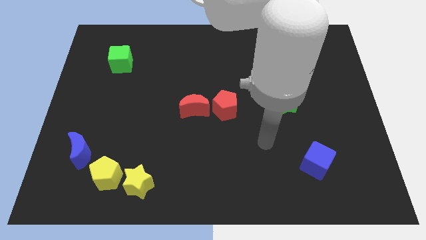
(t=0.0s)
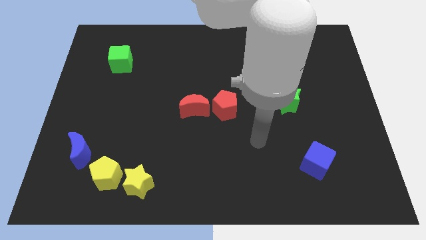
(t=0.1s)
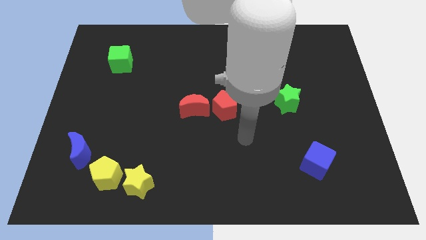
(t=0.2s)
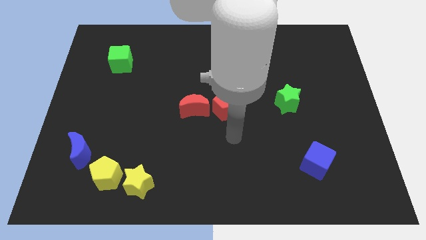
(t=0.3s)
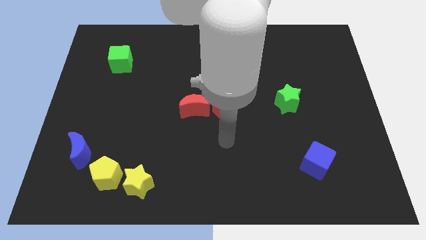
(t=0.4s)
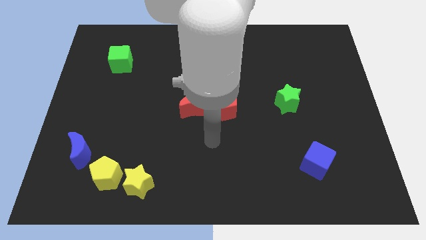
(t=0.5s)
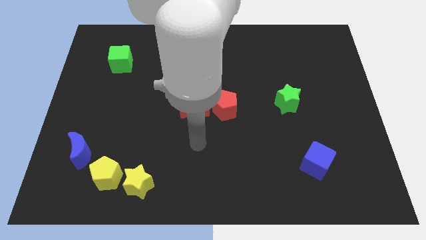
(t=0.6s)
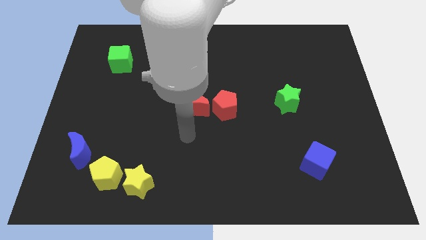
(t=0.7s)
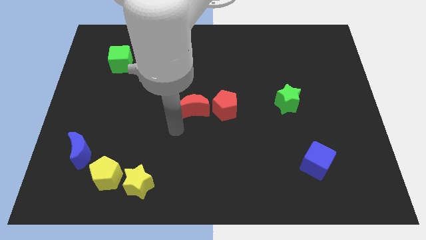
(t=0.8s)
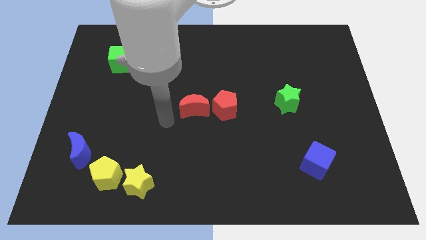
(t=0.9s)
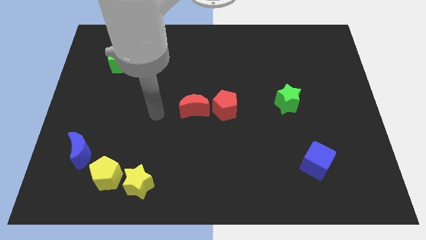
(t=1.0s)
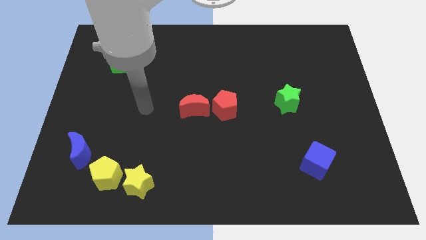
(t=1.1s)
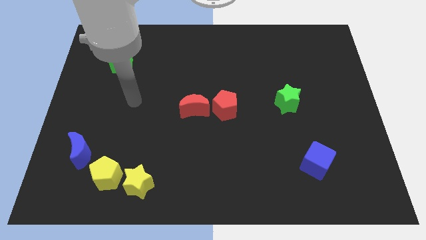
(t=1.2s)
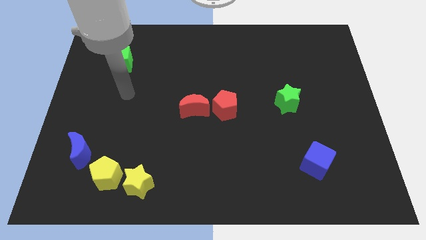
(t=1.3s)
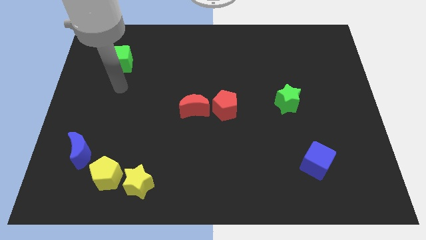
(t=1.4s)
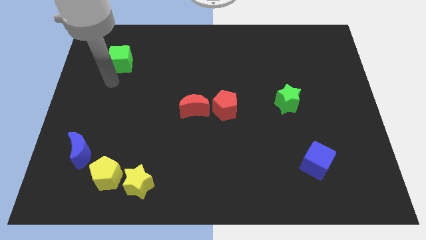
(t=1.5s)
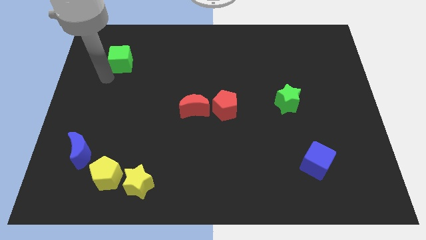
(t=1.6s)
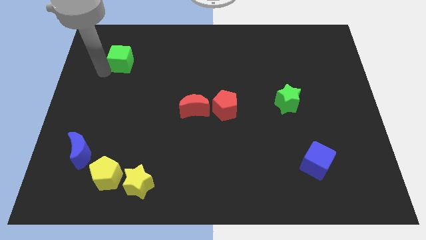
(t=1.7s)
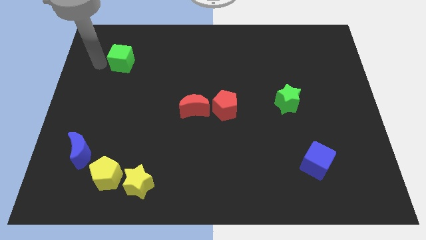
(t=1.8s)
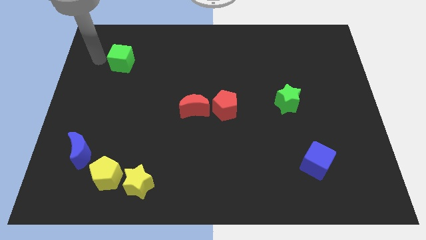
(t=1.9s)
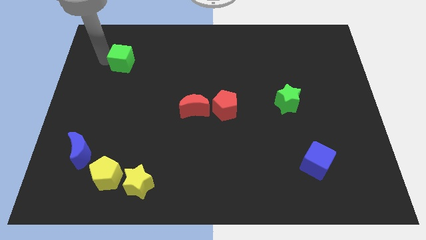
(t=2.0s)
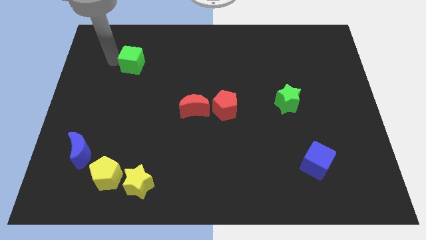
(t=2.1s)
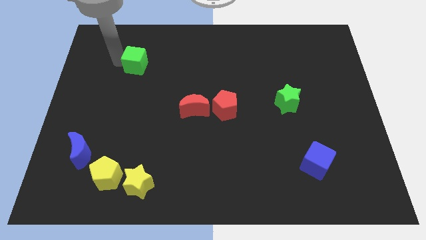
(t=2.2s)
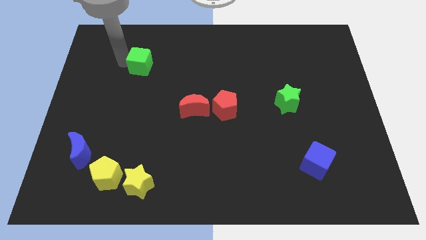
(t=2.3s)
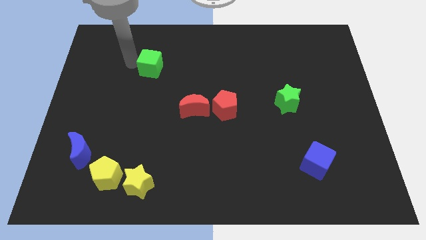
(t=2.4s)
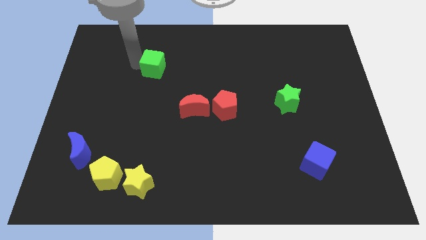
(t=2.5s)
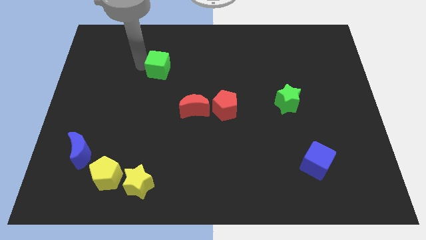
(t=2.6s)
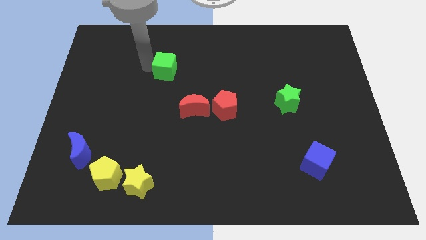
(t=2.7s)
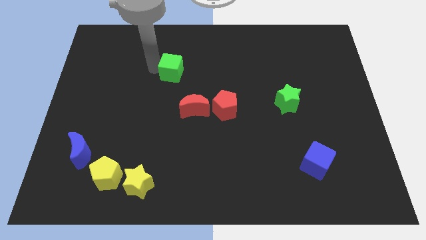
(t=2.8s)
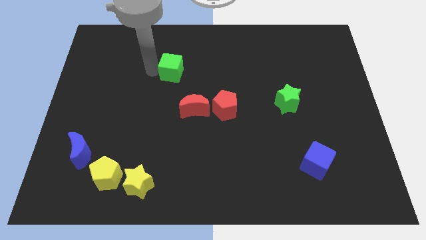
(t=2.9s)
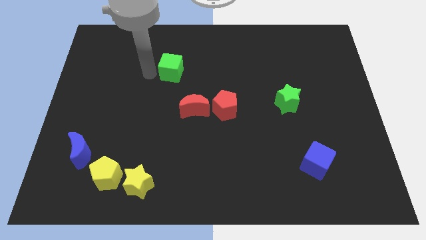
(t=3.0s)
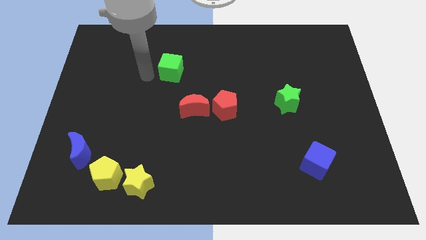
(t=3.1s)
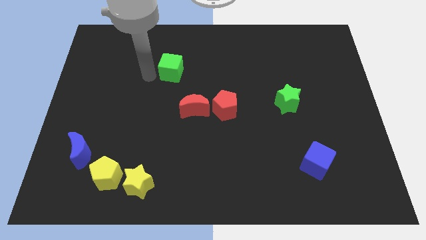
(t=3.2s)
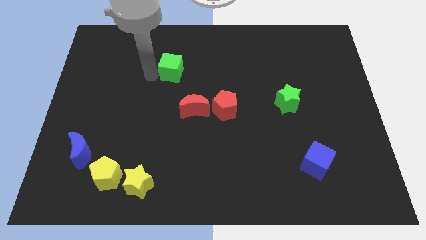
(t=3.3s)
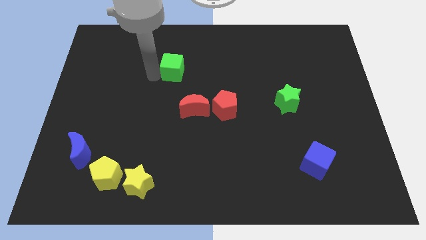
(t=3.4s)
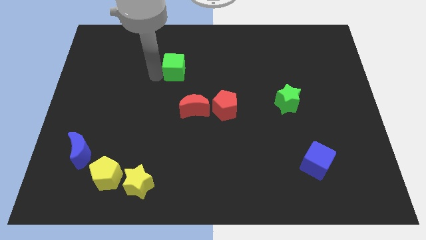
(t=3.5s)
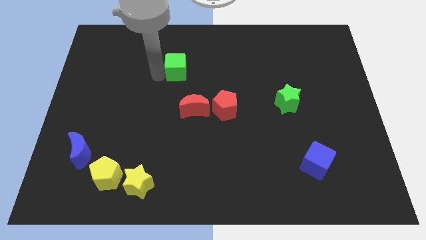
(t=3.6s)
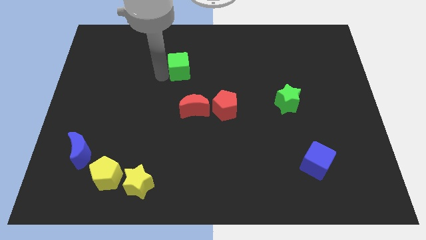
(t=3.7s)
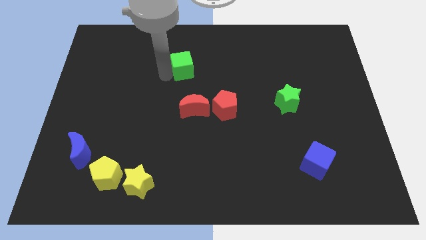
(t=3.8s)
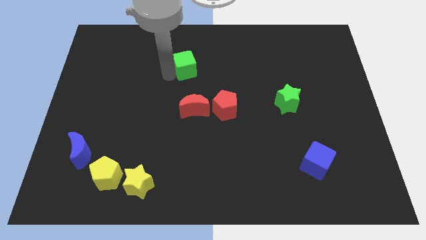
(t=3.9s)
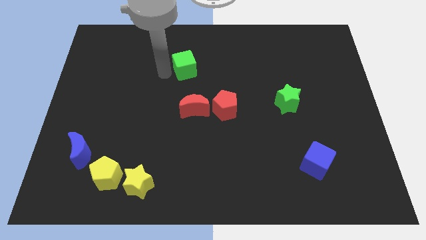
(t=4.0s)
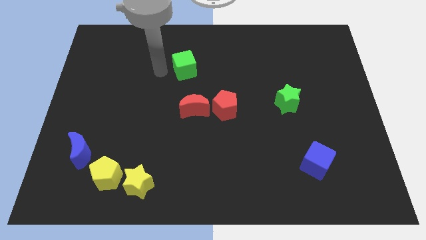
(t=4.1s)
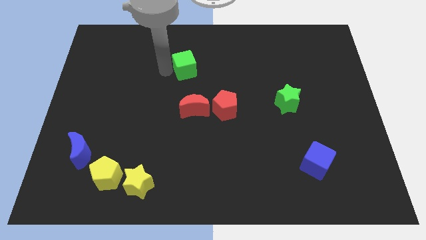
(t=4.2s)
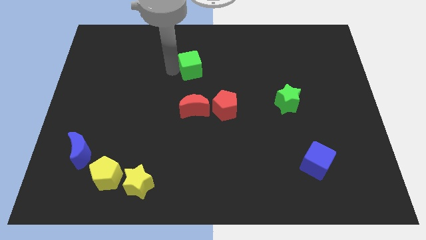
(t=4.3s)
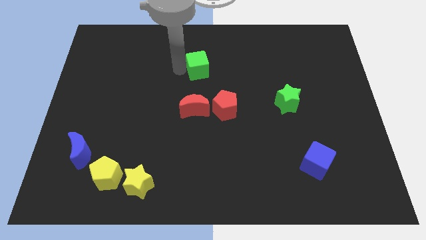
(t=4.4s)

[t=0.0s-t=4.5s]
slide the green cube to the right

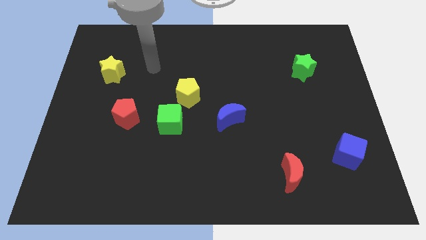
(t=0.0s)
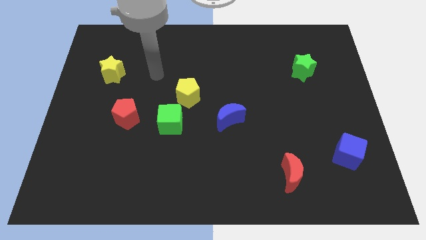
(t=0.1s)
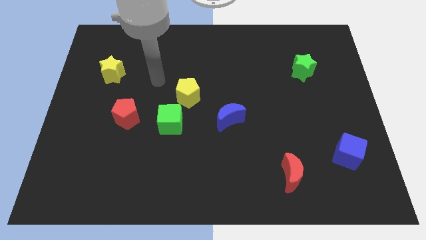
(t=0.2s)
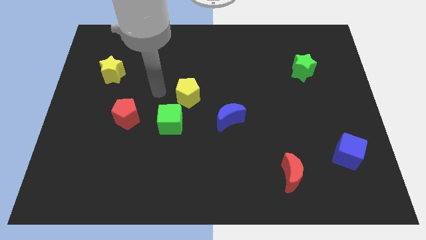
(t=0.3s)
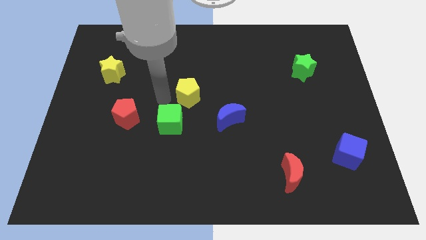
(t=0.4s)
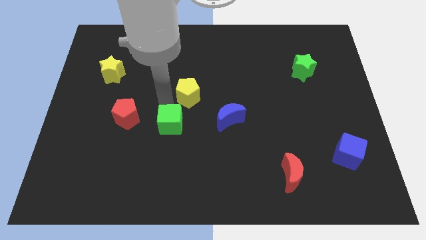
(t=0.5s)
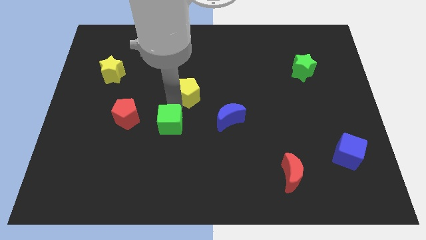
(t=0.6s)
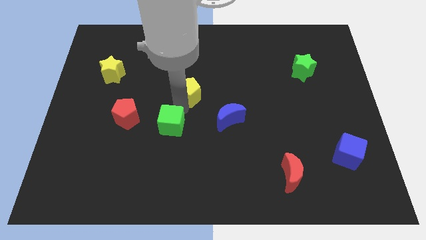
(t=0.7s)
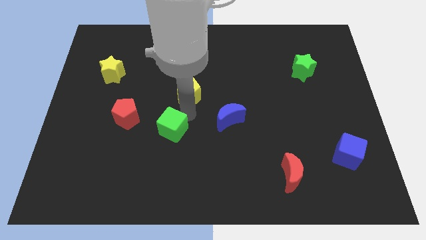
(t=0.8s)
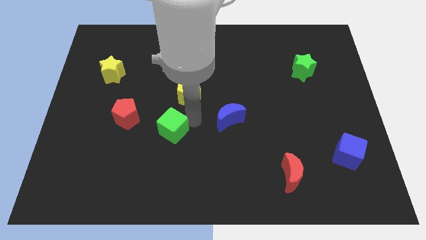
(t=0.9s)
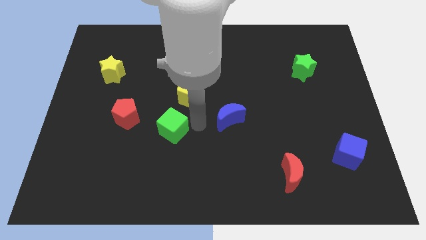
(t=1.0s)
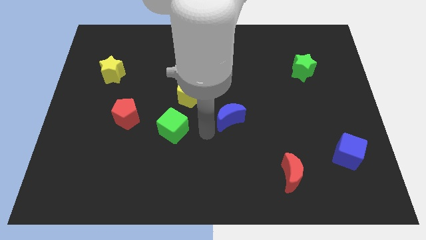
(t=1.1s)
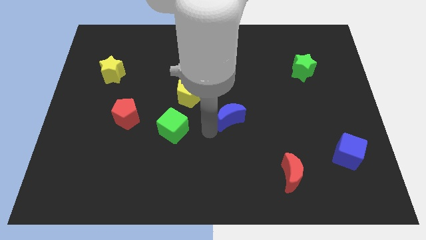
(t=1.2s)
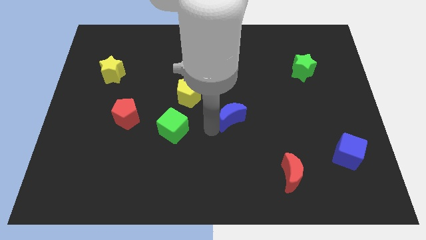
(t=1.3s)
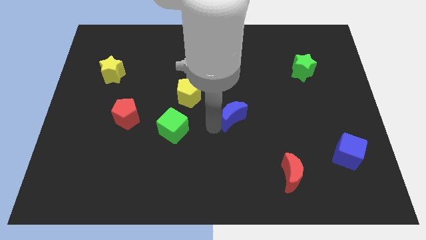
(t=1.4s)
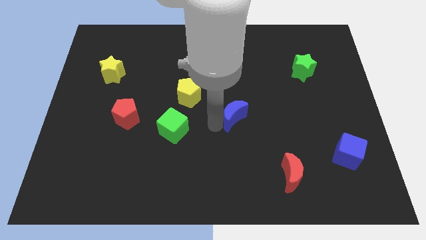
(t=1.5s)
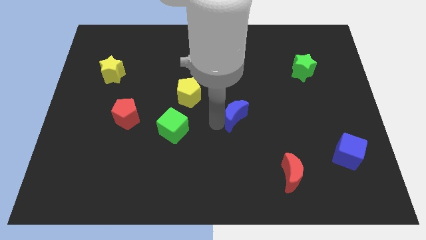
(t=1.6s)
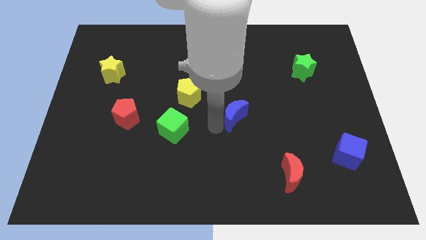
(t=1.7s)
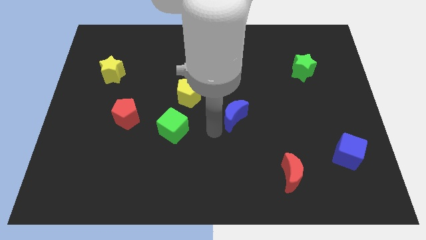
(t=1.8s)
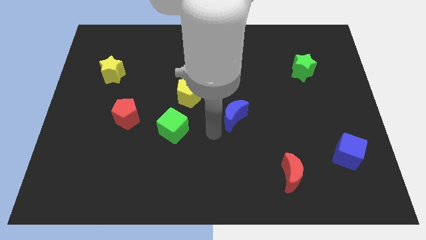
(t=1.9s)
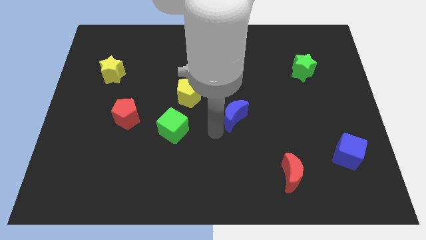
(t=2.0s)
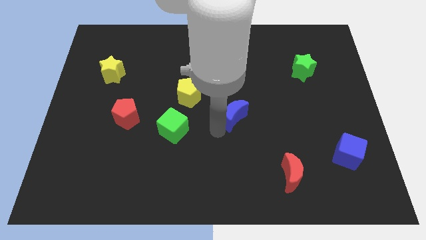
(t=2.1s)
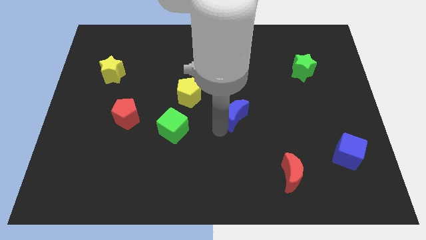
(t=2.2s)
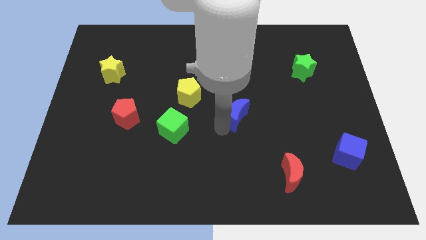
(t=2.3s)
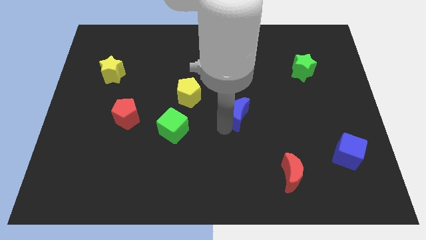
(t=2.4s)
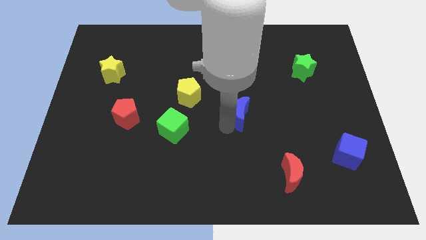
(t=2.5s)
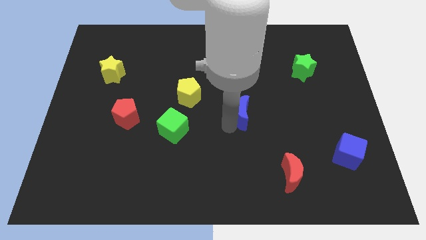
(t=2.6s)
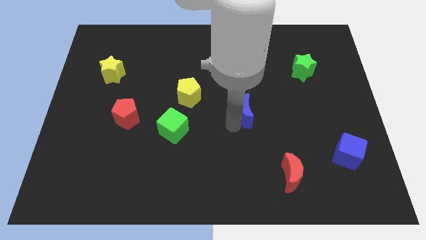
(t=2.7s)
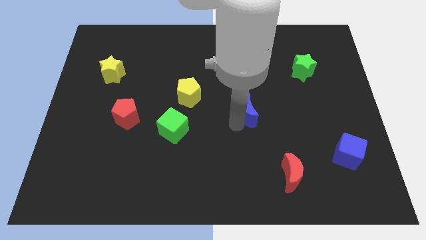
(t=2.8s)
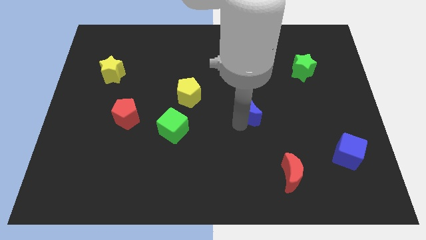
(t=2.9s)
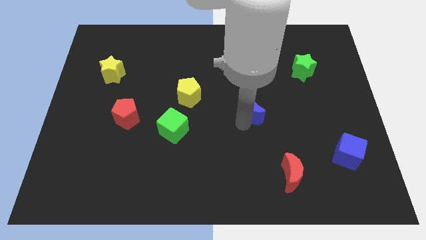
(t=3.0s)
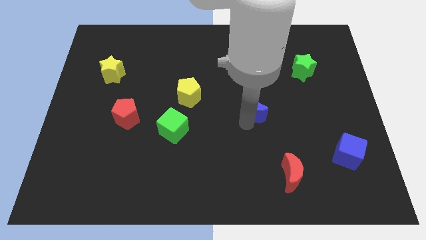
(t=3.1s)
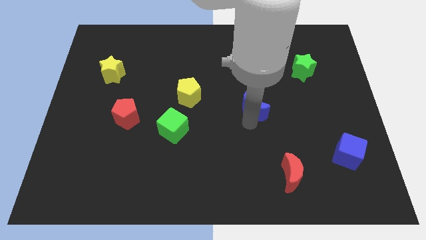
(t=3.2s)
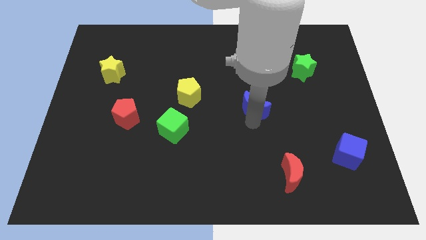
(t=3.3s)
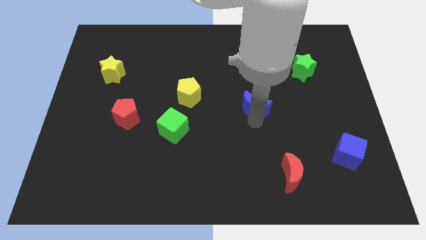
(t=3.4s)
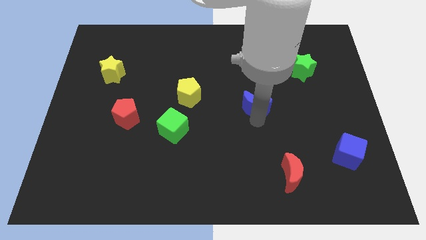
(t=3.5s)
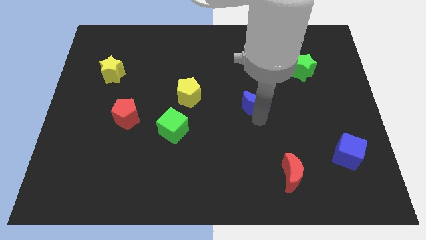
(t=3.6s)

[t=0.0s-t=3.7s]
move the blue moon a little bit upwards and to the right
